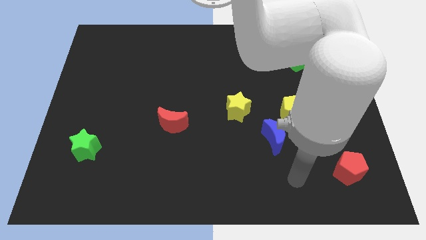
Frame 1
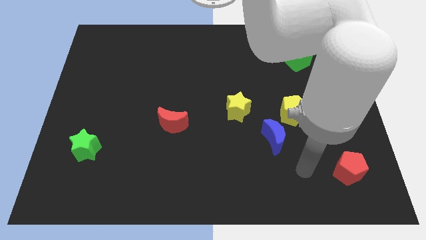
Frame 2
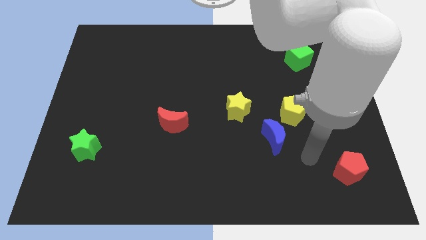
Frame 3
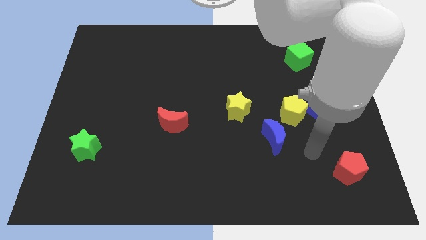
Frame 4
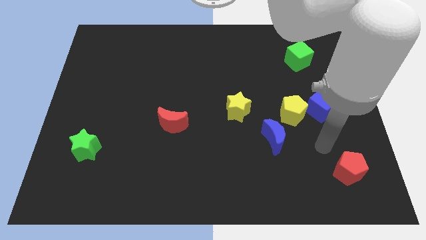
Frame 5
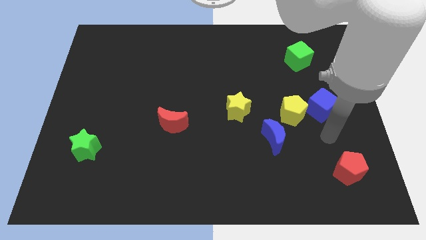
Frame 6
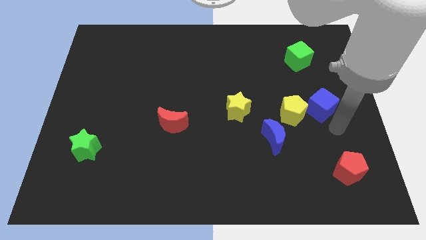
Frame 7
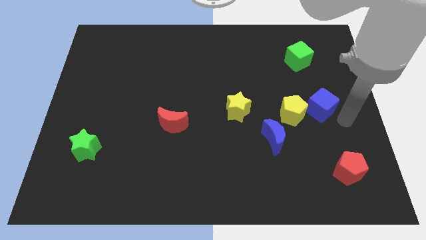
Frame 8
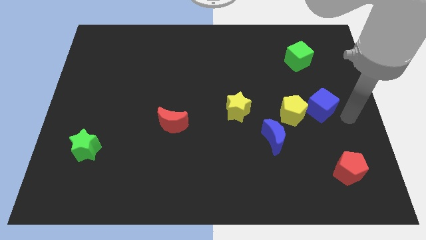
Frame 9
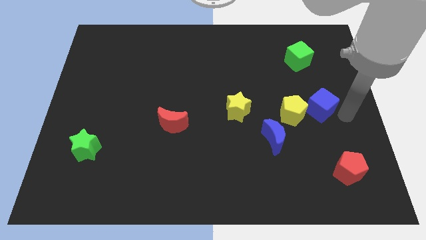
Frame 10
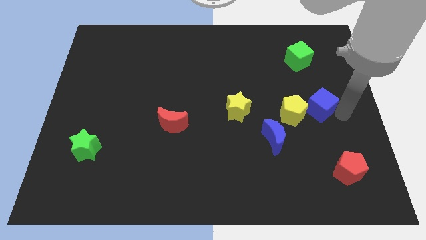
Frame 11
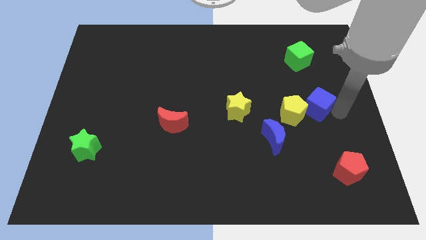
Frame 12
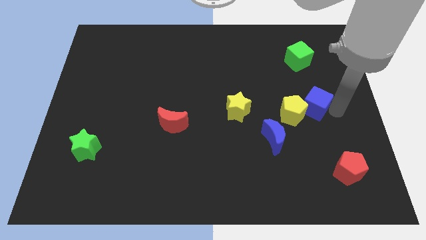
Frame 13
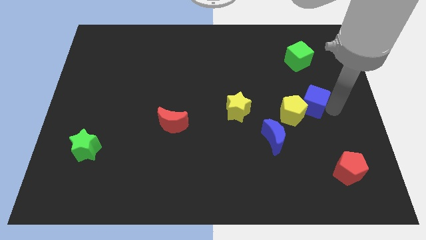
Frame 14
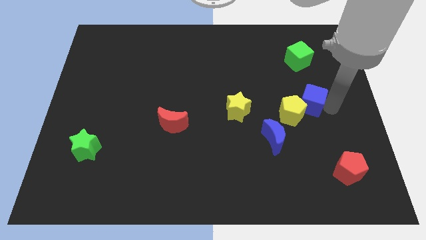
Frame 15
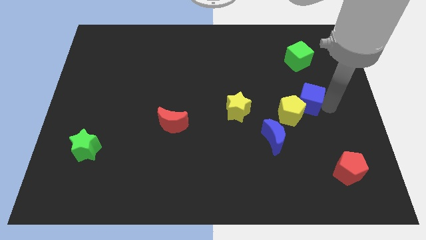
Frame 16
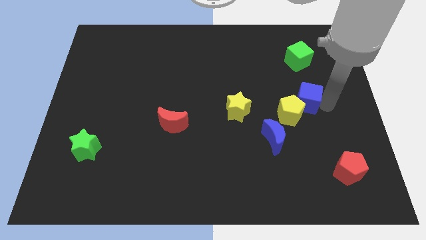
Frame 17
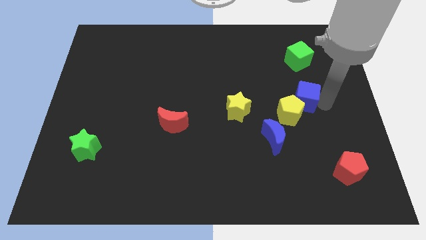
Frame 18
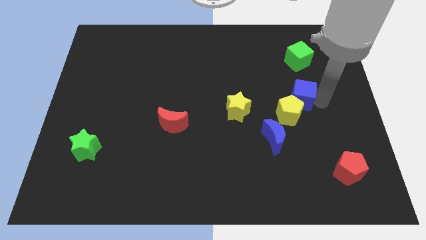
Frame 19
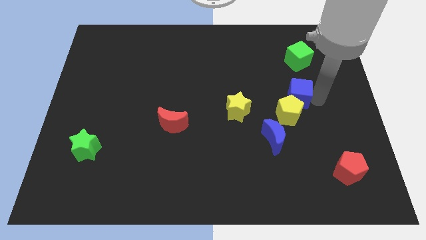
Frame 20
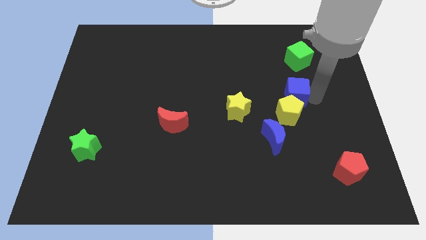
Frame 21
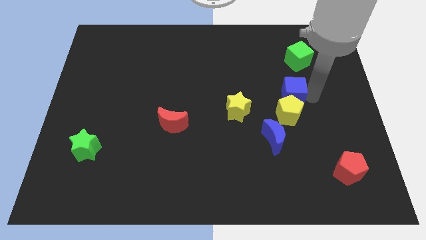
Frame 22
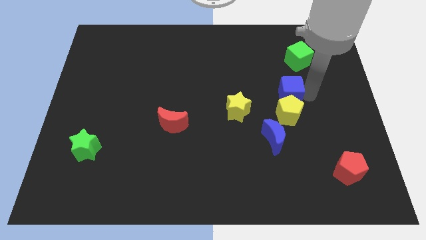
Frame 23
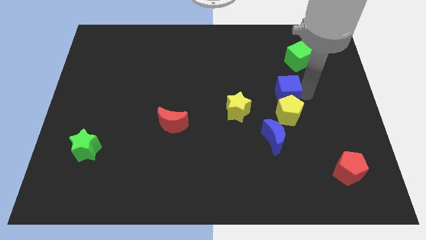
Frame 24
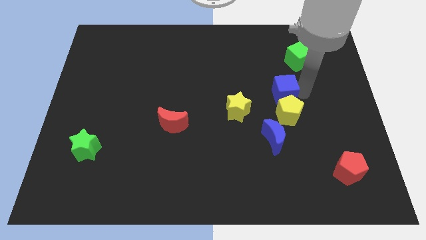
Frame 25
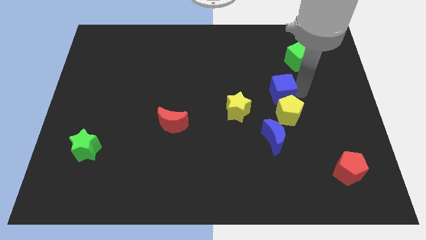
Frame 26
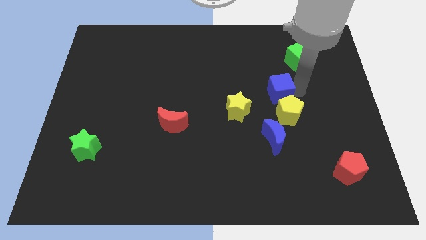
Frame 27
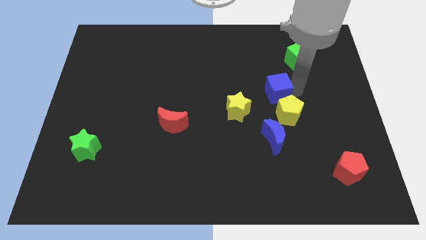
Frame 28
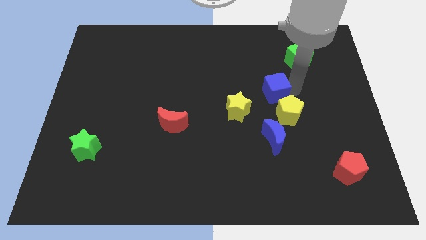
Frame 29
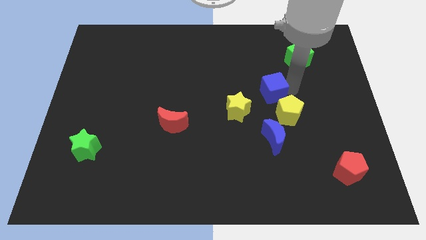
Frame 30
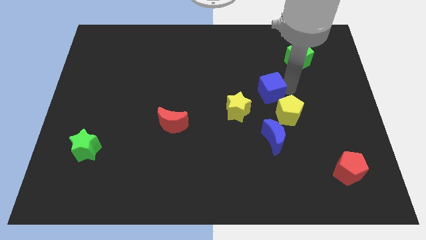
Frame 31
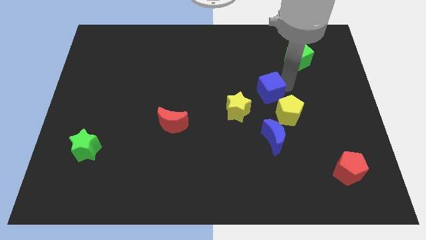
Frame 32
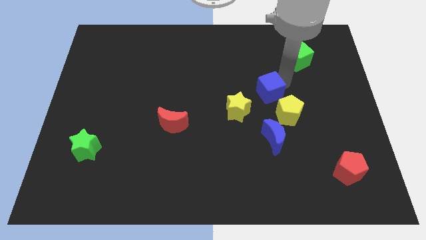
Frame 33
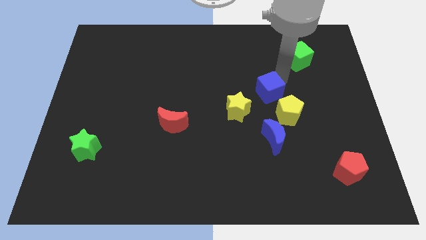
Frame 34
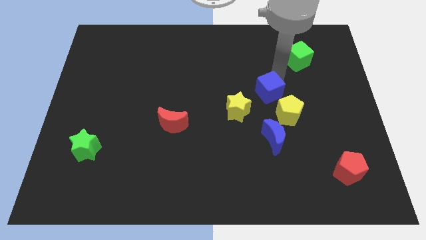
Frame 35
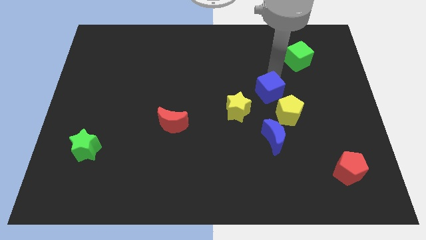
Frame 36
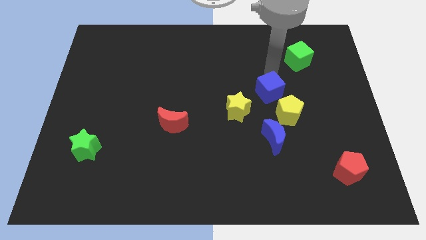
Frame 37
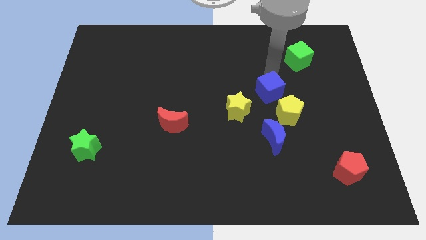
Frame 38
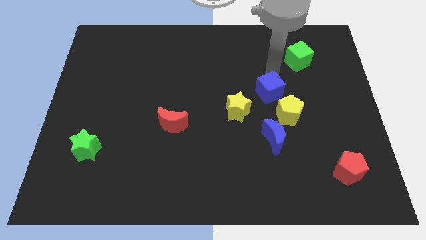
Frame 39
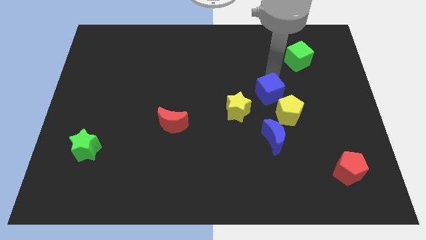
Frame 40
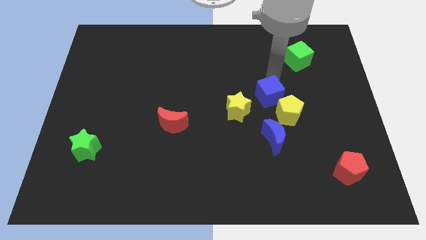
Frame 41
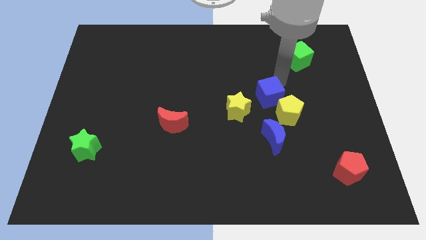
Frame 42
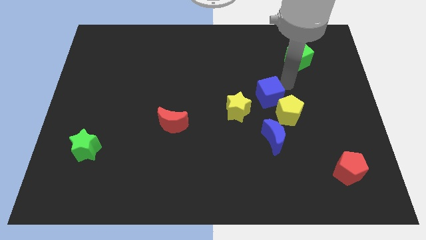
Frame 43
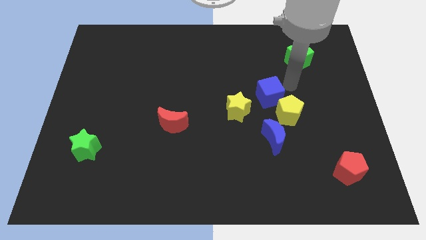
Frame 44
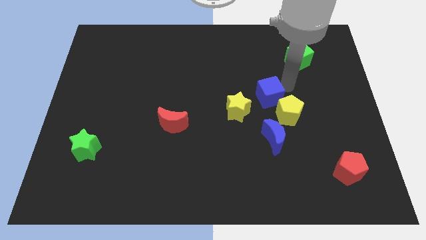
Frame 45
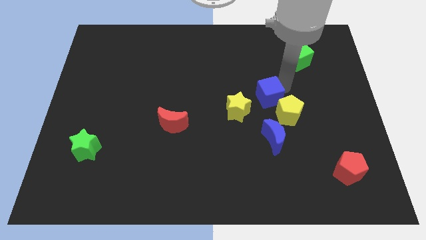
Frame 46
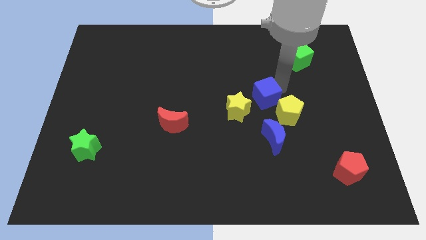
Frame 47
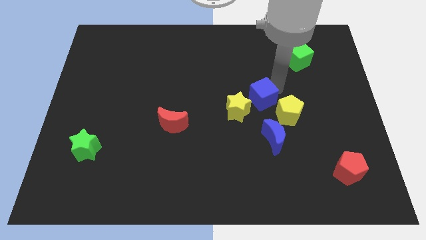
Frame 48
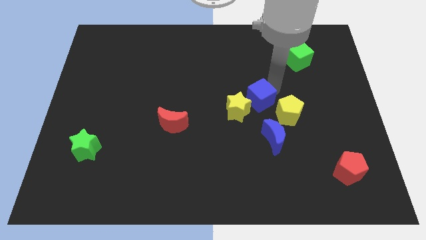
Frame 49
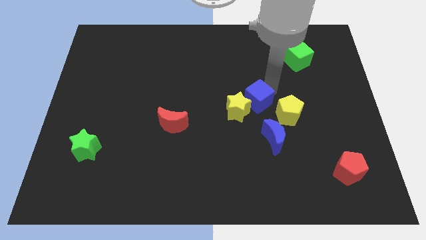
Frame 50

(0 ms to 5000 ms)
put the blue cube next to the yellow star
